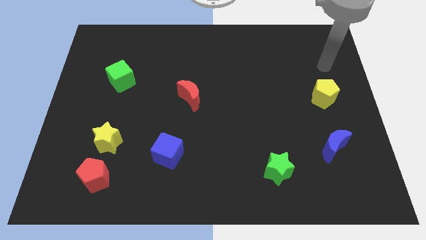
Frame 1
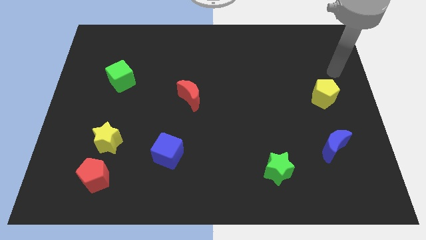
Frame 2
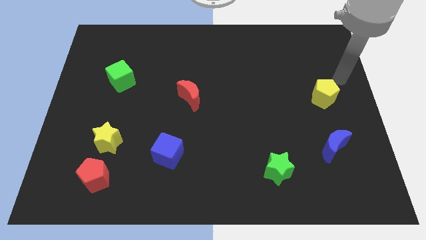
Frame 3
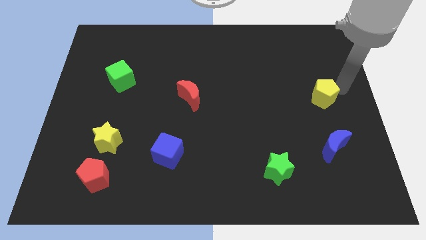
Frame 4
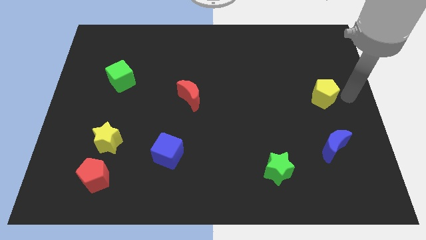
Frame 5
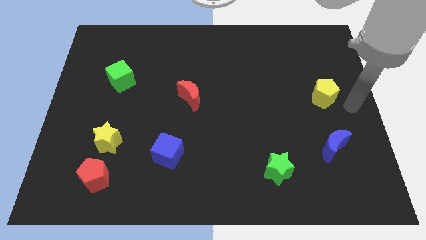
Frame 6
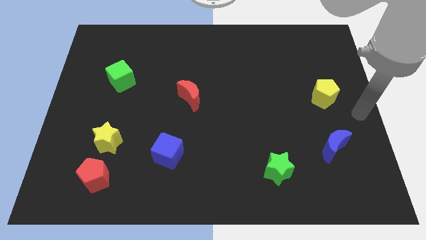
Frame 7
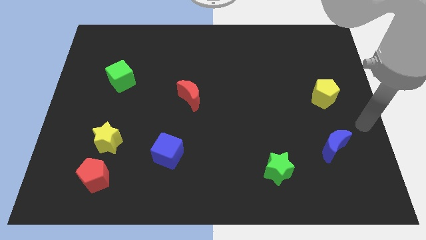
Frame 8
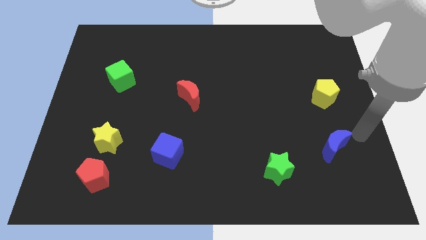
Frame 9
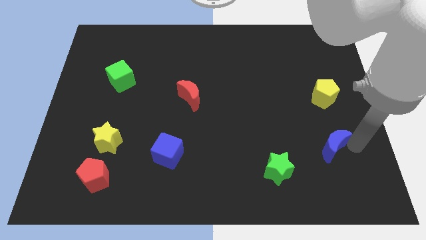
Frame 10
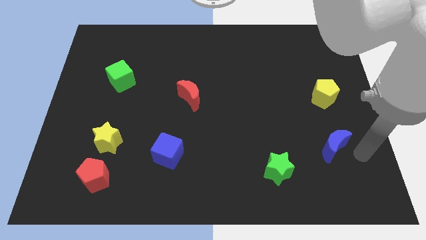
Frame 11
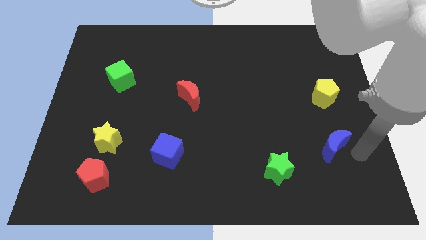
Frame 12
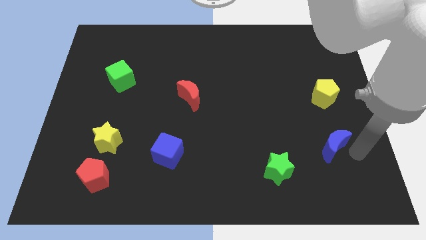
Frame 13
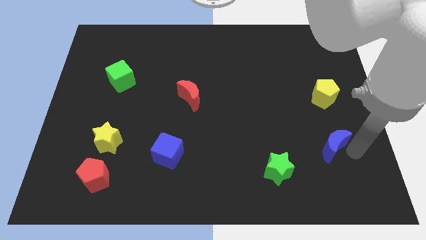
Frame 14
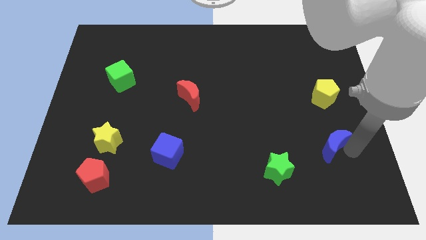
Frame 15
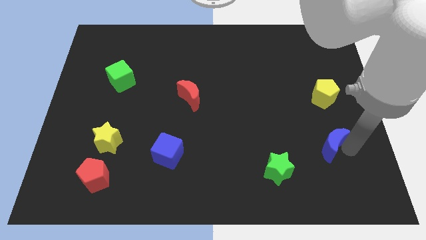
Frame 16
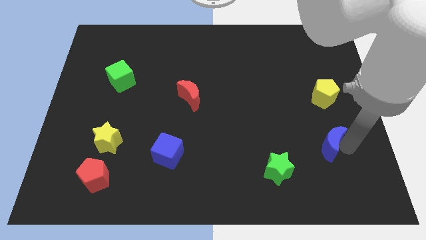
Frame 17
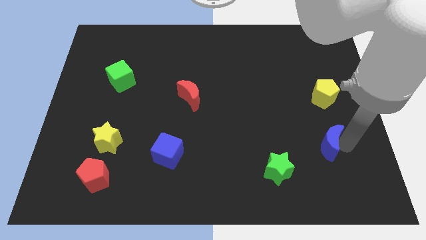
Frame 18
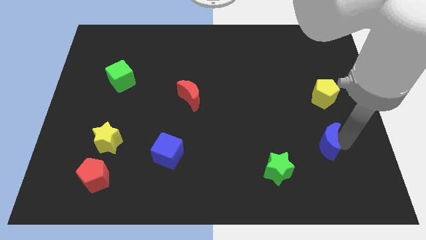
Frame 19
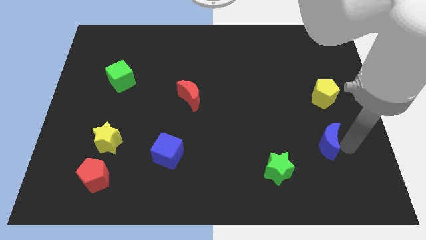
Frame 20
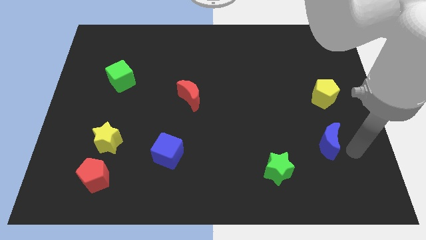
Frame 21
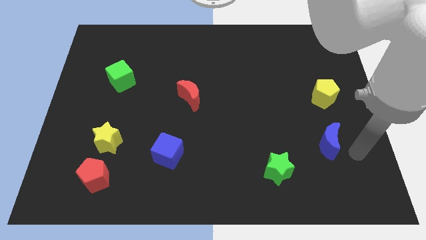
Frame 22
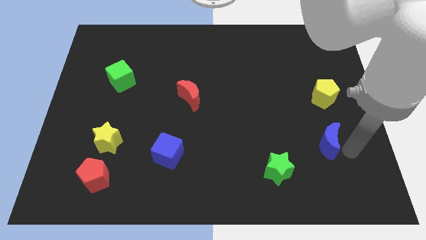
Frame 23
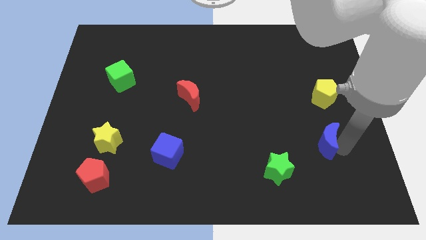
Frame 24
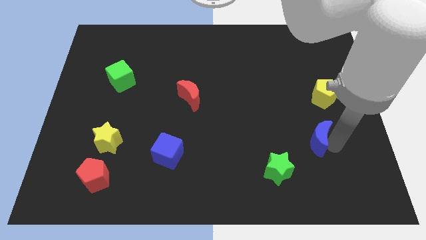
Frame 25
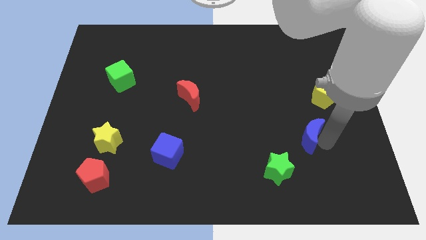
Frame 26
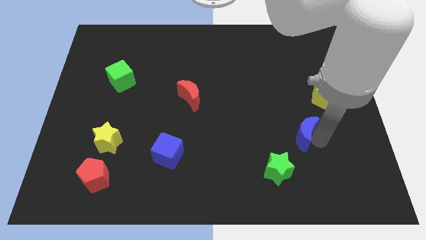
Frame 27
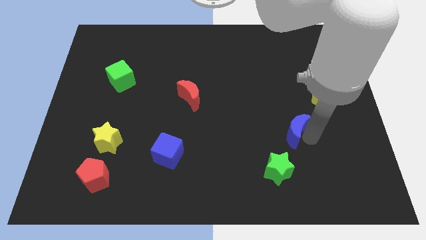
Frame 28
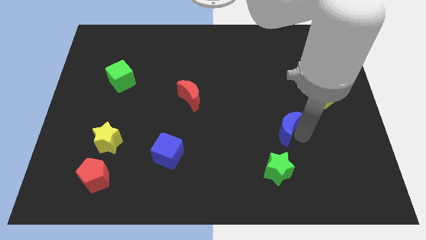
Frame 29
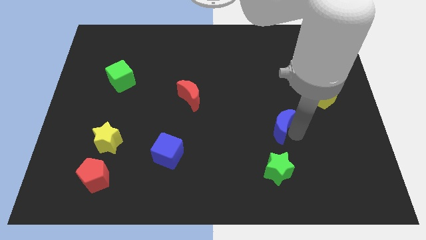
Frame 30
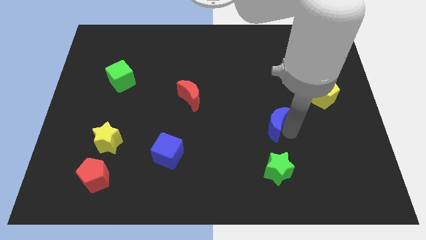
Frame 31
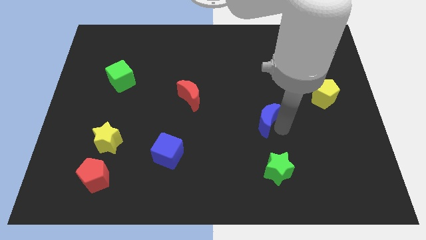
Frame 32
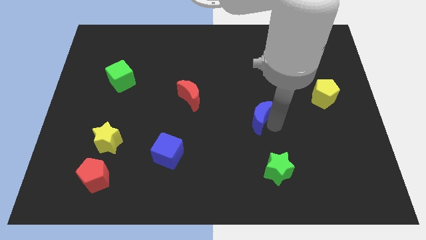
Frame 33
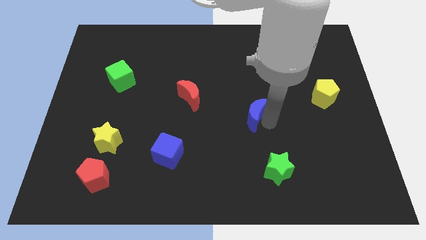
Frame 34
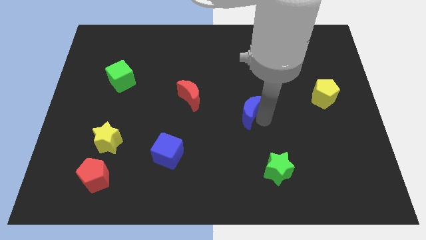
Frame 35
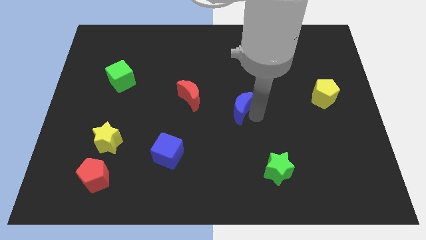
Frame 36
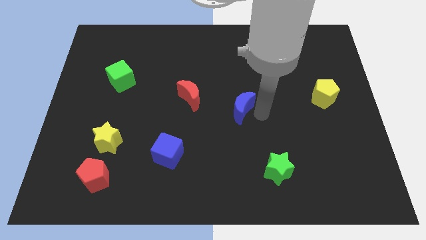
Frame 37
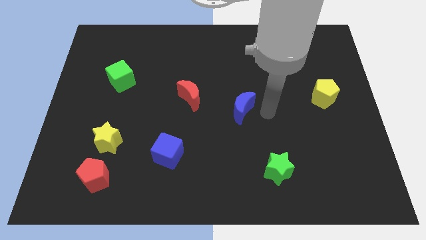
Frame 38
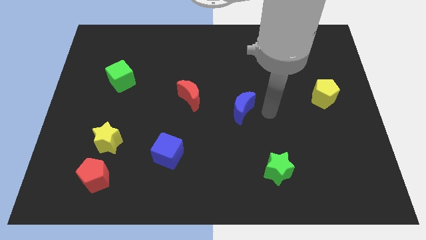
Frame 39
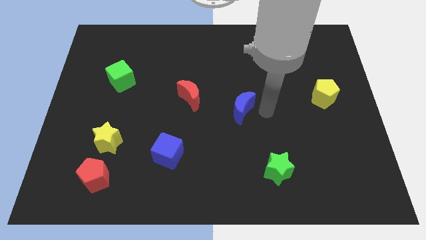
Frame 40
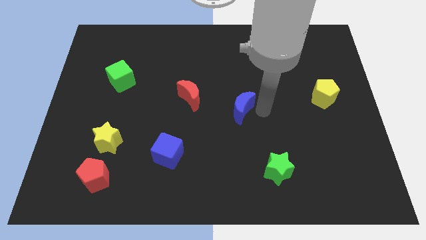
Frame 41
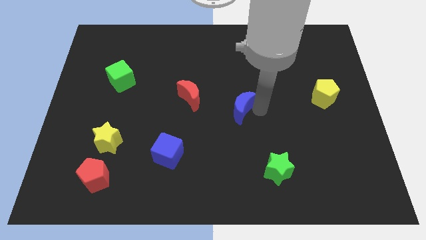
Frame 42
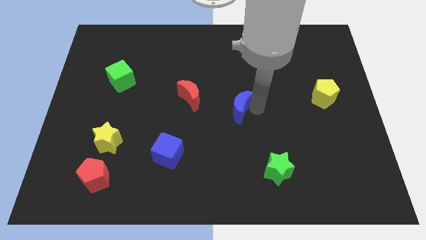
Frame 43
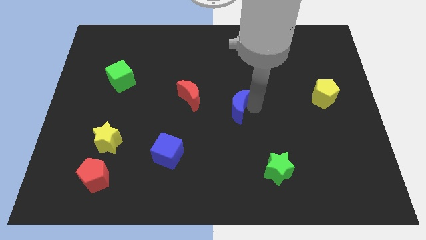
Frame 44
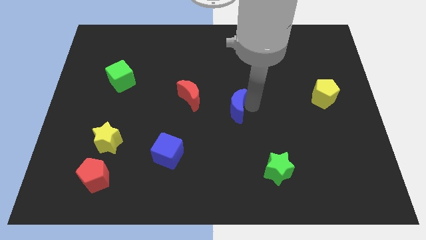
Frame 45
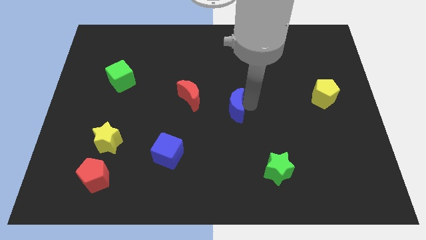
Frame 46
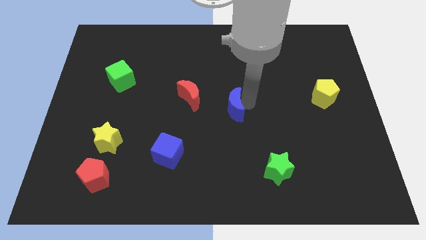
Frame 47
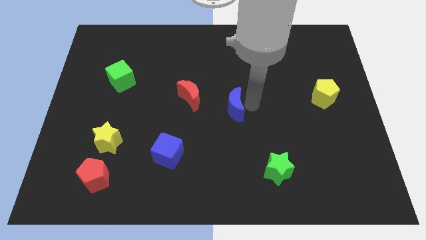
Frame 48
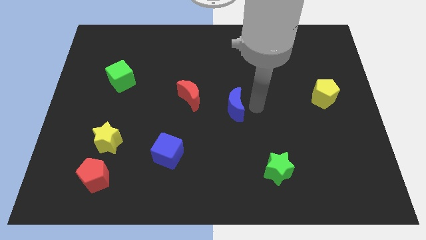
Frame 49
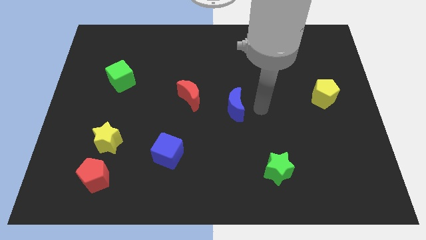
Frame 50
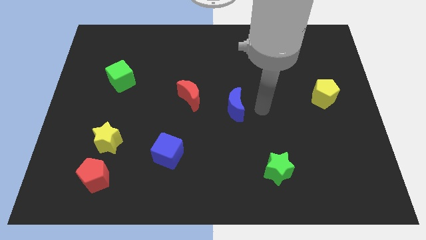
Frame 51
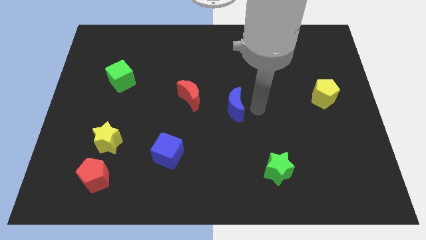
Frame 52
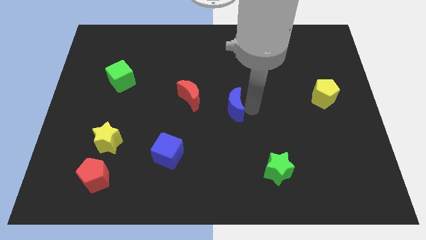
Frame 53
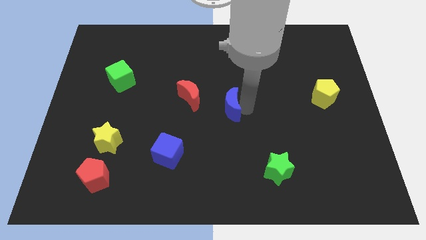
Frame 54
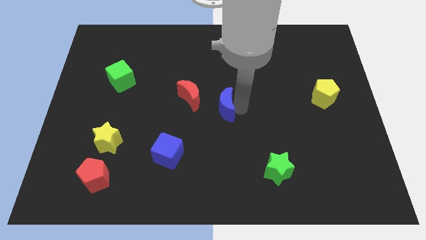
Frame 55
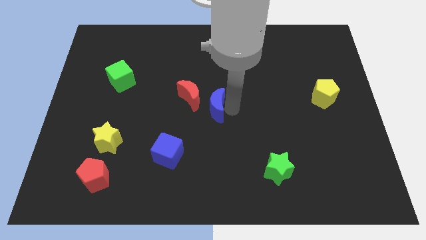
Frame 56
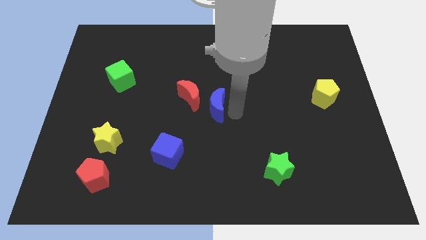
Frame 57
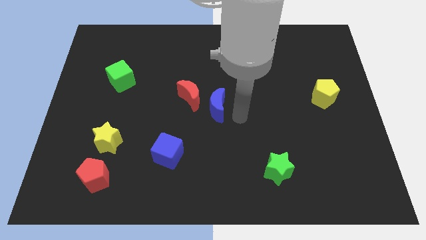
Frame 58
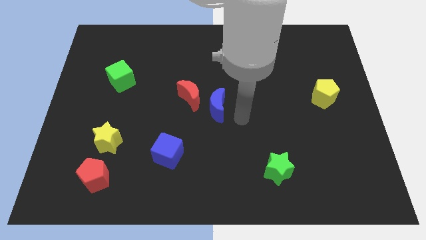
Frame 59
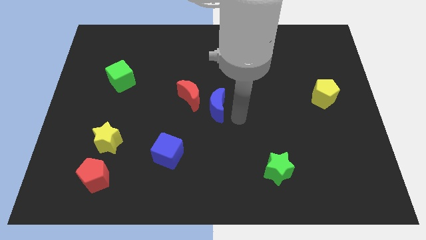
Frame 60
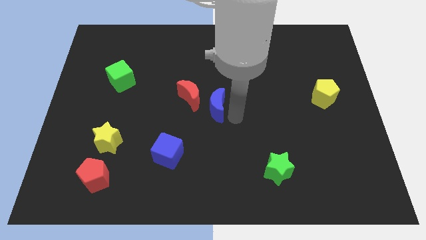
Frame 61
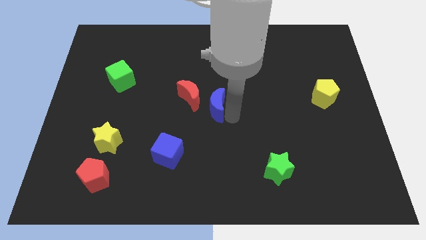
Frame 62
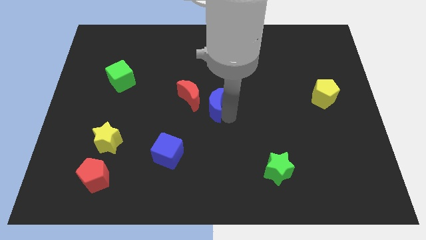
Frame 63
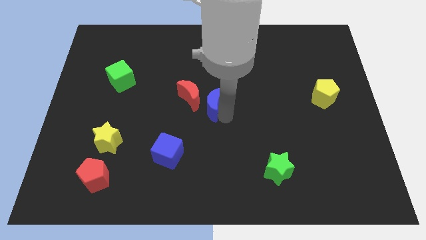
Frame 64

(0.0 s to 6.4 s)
push the blue moon to the red moon
